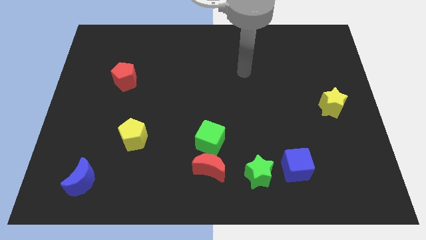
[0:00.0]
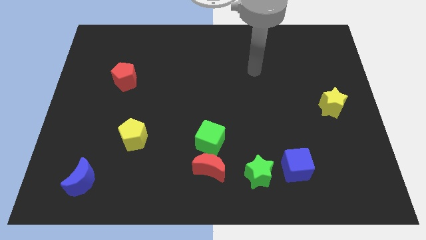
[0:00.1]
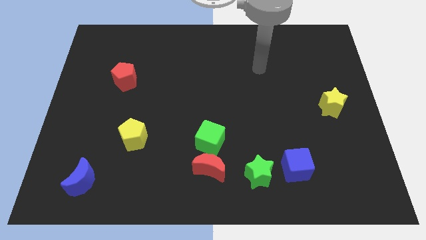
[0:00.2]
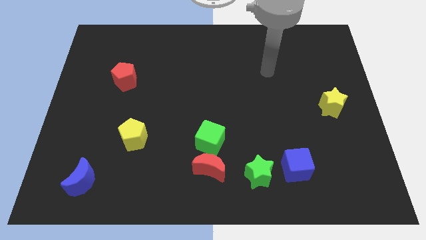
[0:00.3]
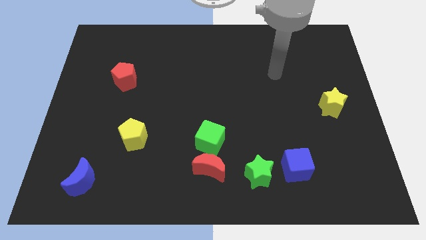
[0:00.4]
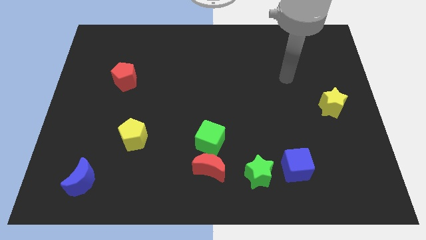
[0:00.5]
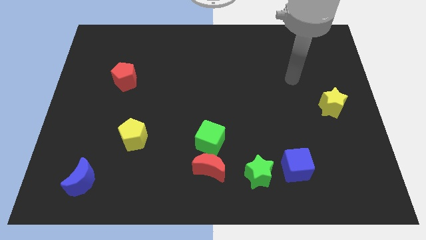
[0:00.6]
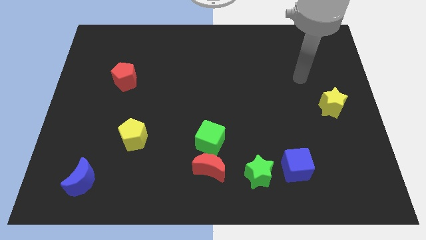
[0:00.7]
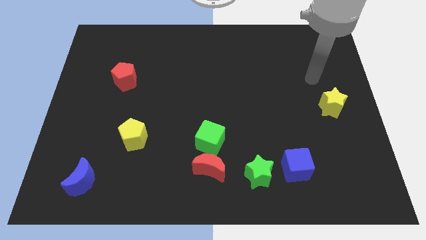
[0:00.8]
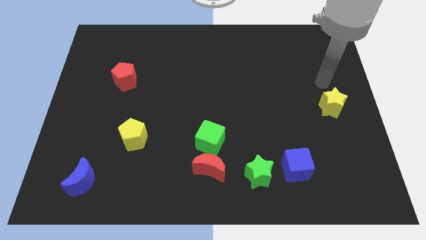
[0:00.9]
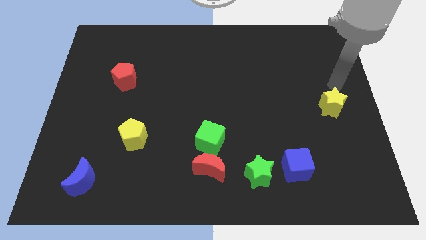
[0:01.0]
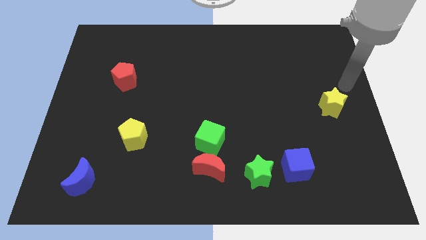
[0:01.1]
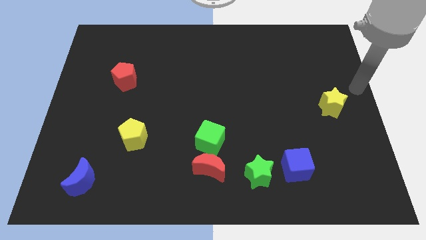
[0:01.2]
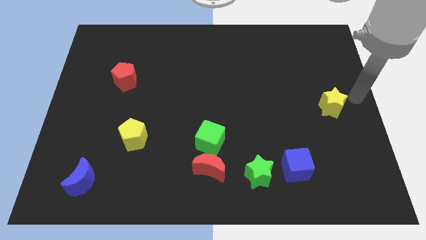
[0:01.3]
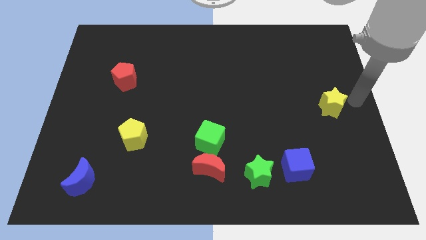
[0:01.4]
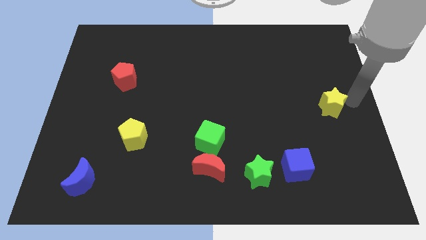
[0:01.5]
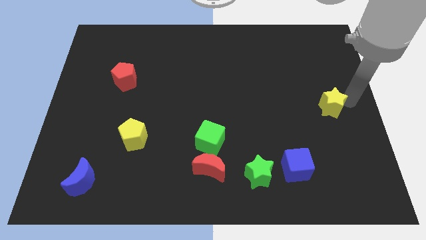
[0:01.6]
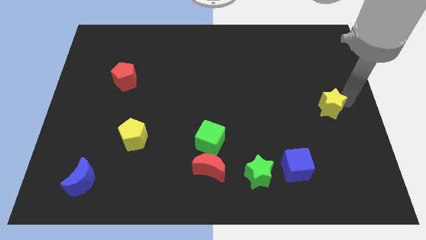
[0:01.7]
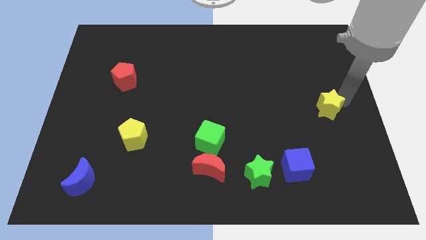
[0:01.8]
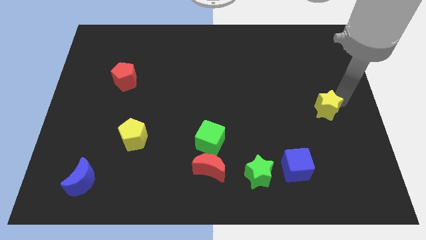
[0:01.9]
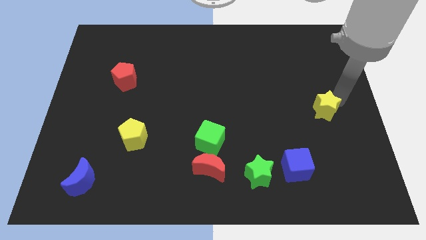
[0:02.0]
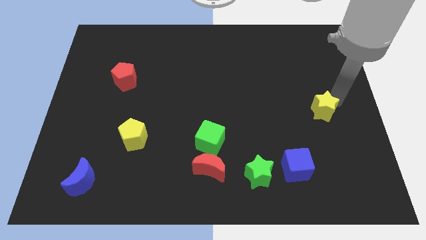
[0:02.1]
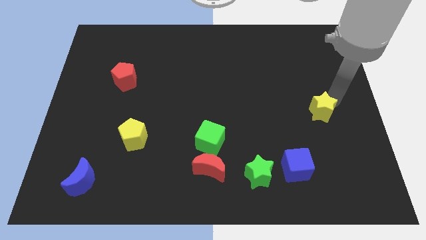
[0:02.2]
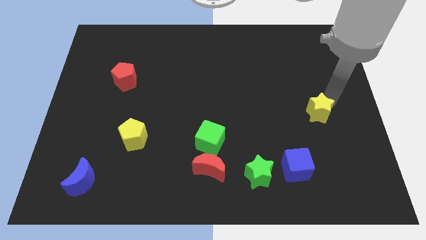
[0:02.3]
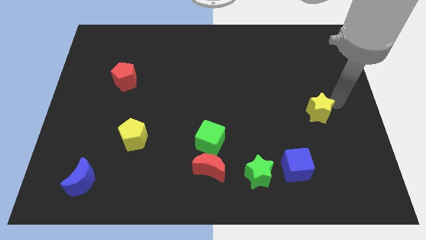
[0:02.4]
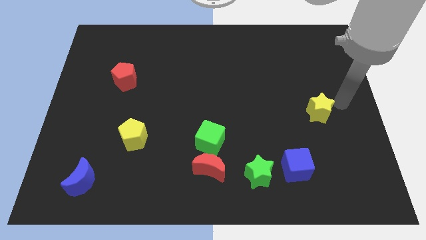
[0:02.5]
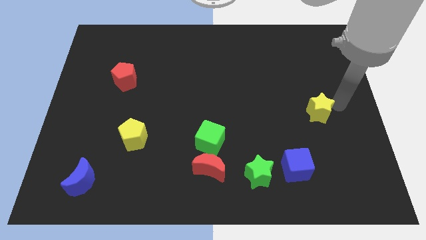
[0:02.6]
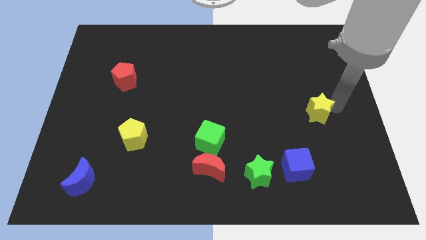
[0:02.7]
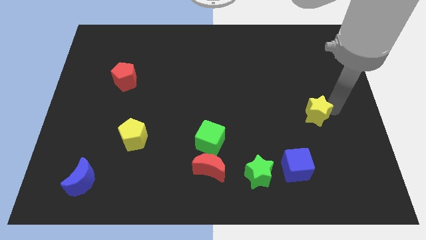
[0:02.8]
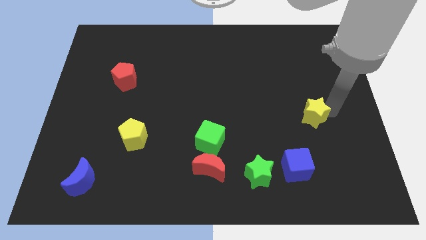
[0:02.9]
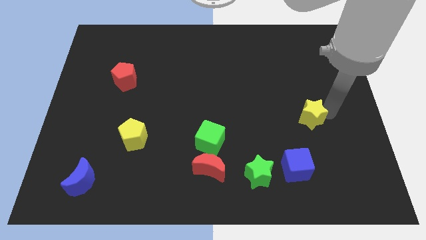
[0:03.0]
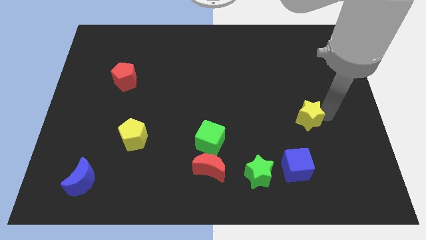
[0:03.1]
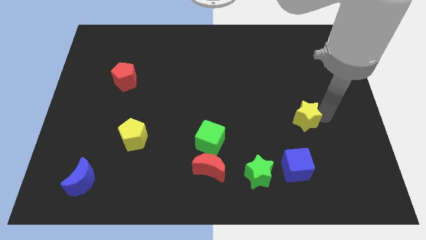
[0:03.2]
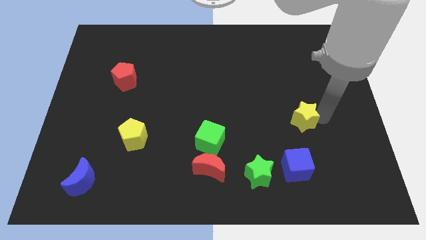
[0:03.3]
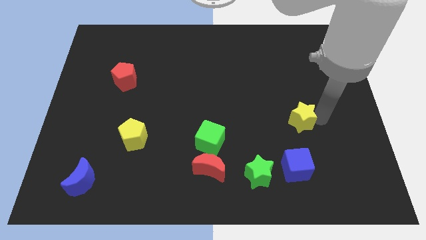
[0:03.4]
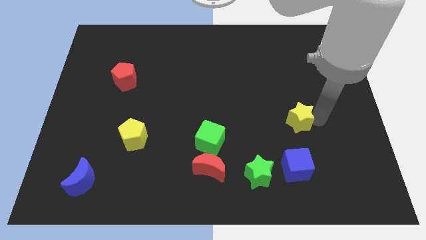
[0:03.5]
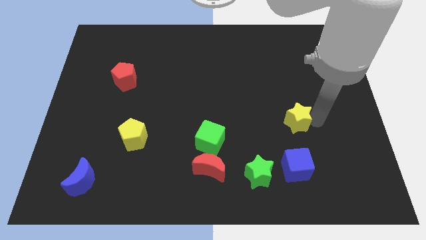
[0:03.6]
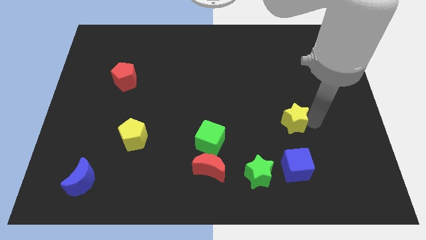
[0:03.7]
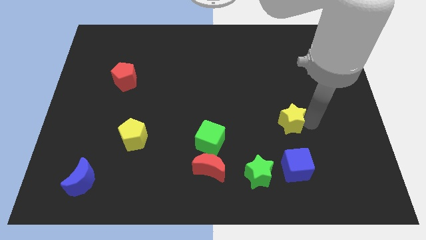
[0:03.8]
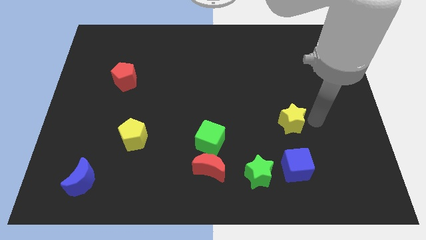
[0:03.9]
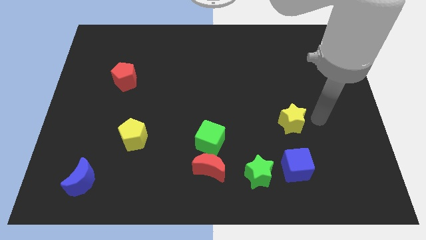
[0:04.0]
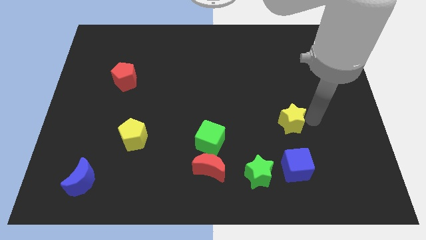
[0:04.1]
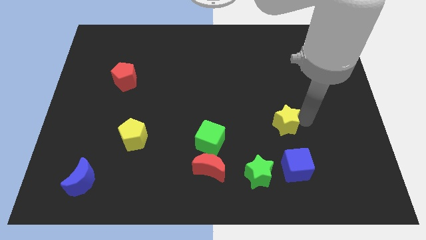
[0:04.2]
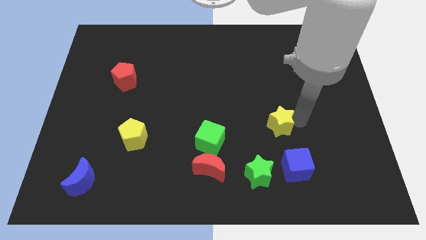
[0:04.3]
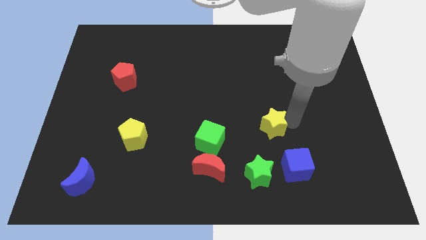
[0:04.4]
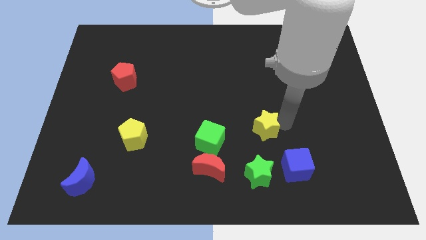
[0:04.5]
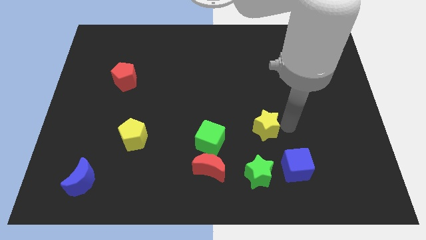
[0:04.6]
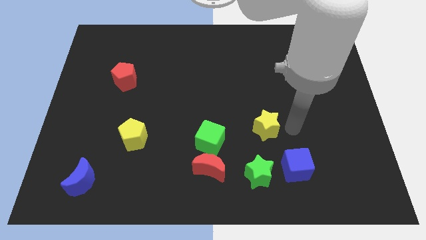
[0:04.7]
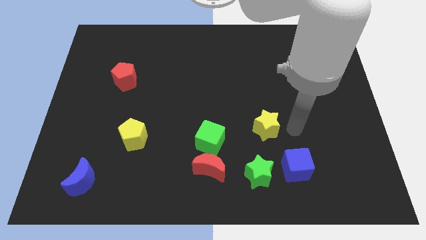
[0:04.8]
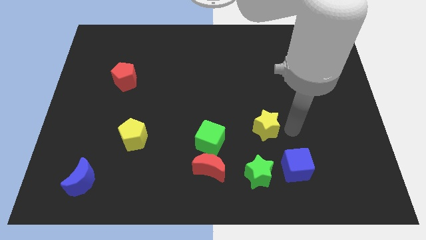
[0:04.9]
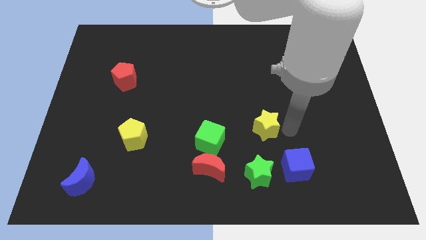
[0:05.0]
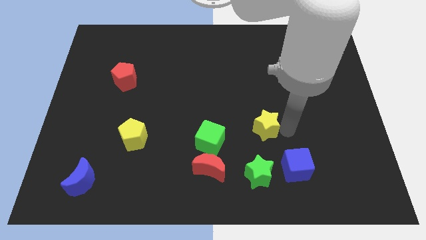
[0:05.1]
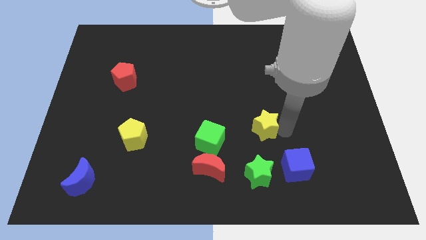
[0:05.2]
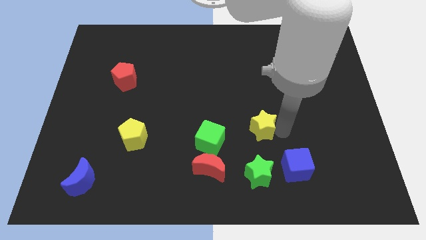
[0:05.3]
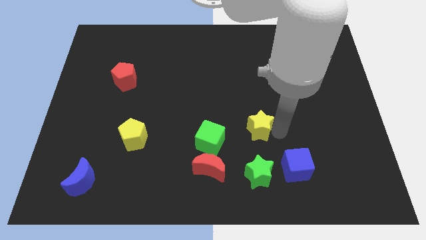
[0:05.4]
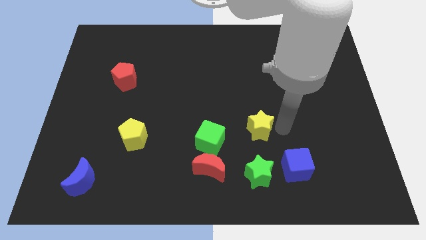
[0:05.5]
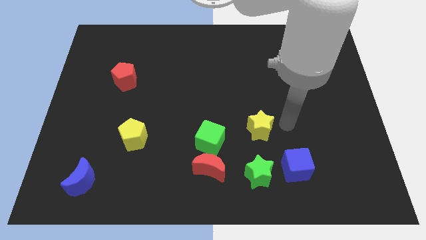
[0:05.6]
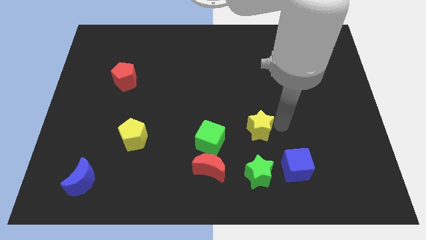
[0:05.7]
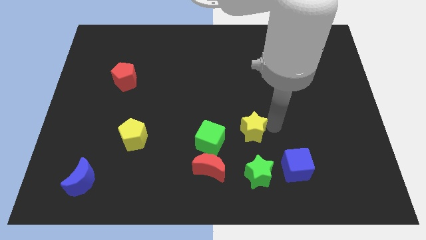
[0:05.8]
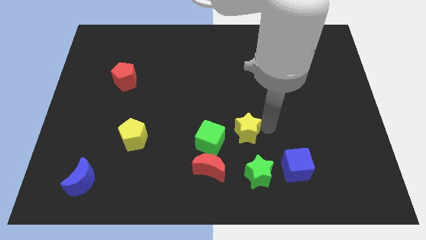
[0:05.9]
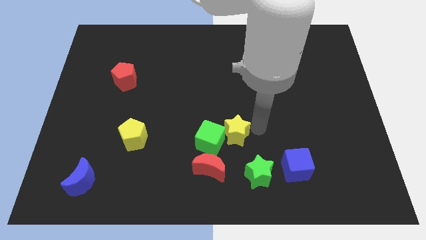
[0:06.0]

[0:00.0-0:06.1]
slide the yellow star next to the green cube

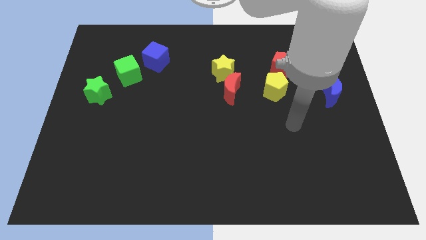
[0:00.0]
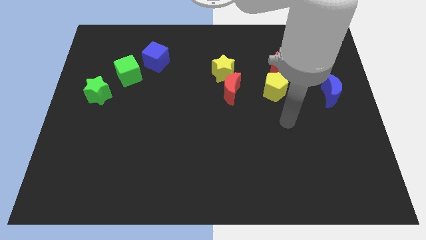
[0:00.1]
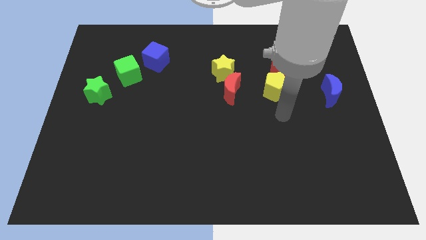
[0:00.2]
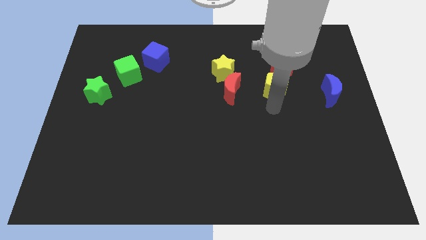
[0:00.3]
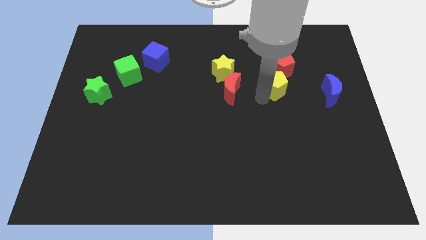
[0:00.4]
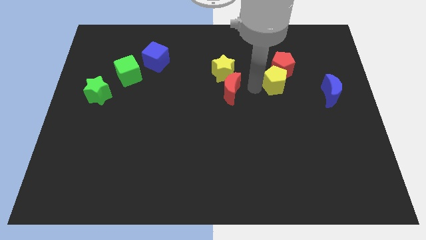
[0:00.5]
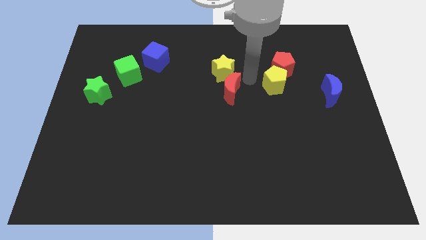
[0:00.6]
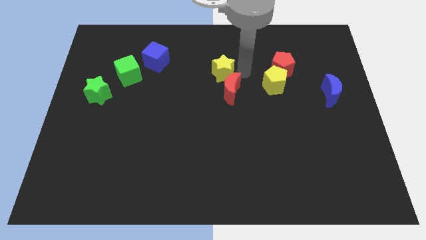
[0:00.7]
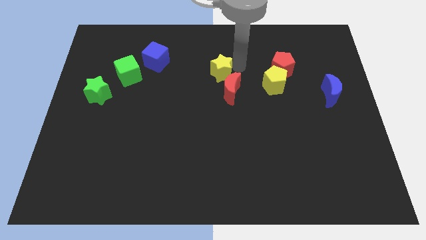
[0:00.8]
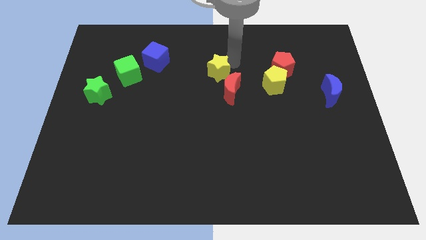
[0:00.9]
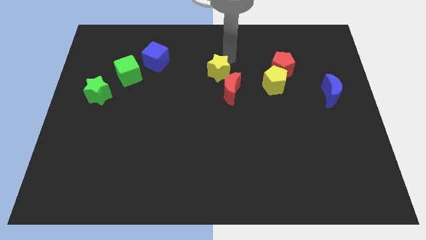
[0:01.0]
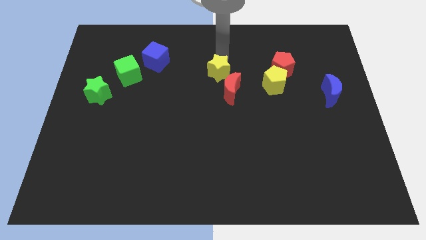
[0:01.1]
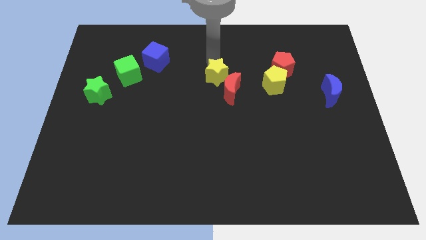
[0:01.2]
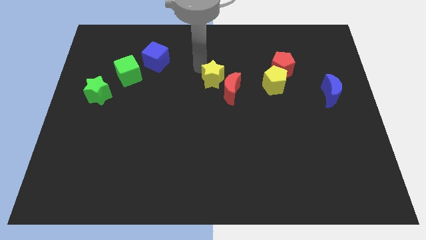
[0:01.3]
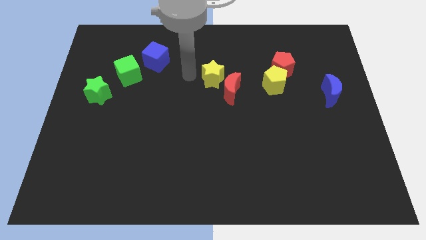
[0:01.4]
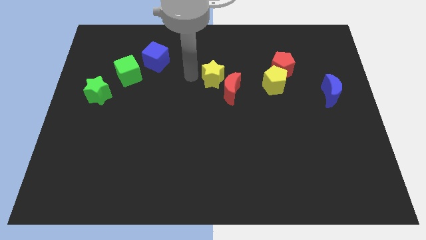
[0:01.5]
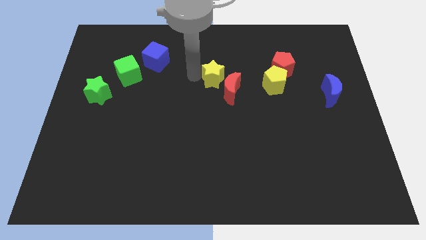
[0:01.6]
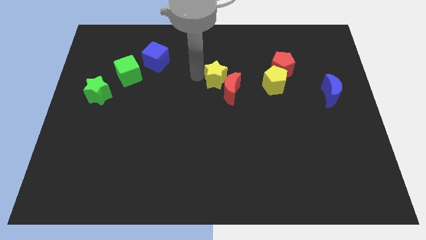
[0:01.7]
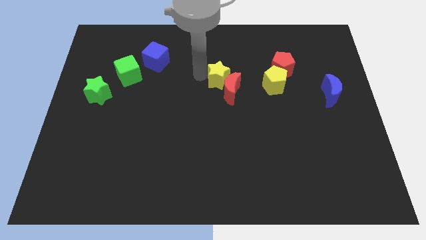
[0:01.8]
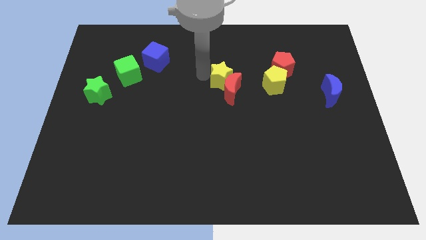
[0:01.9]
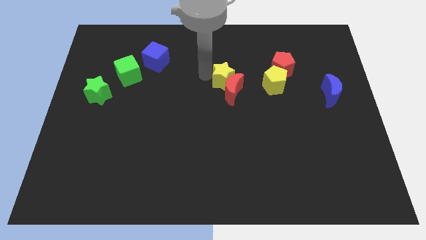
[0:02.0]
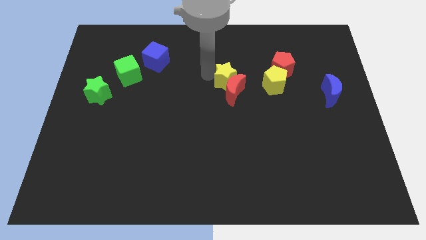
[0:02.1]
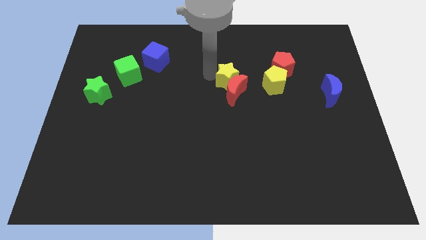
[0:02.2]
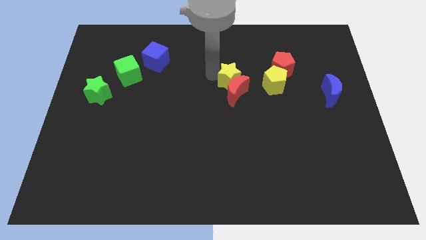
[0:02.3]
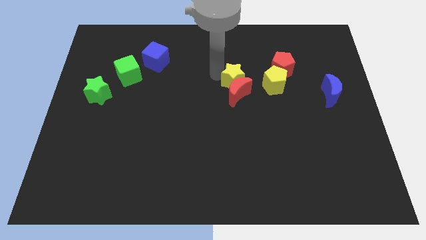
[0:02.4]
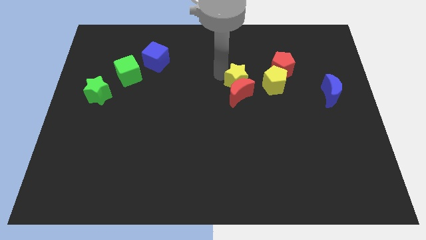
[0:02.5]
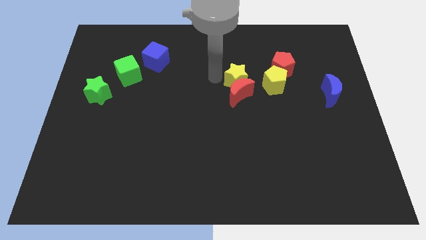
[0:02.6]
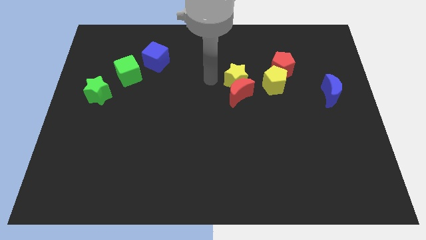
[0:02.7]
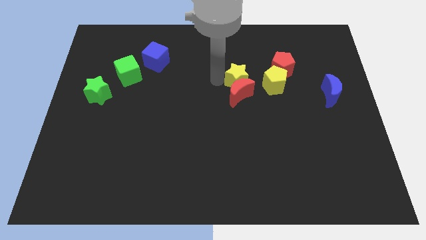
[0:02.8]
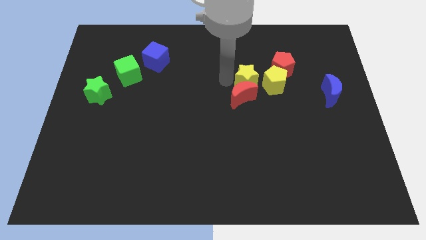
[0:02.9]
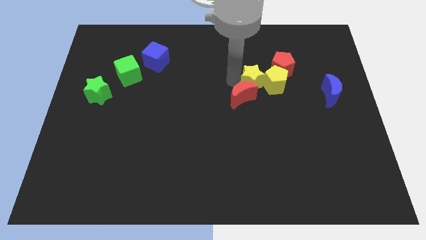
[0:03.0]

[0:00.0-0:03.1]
put the yellow star close to the yellow pentagon
